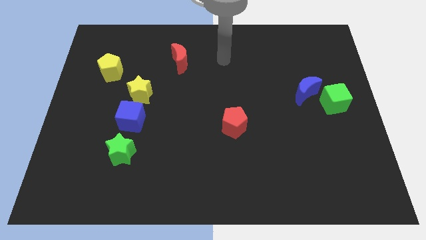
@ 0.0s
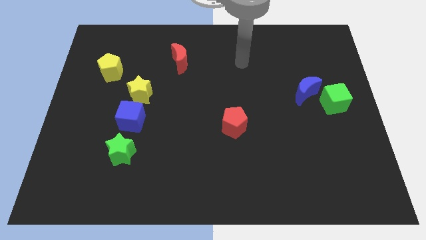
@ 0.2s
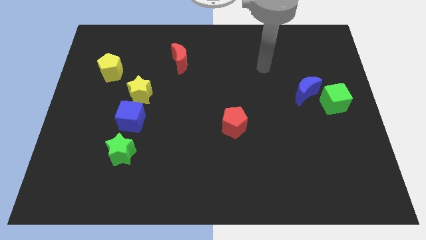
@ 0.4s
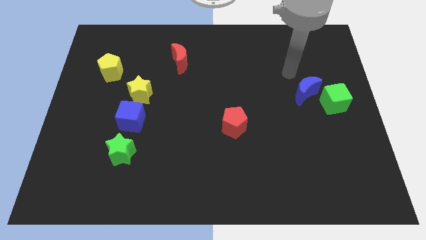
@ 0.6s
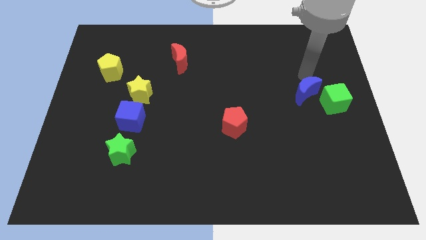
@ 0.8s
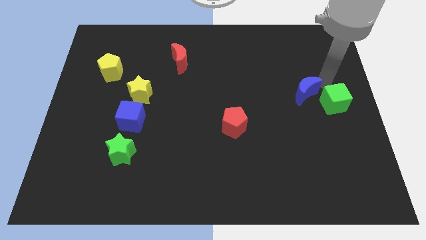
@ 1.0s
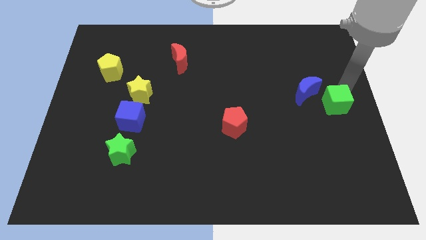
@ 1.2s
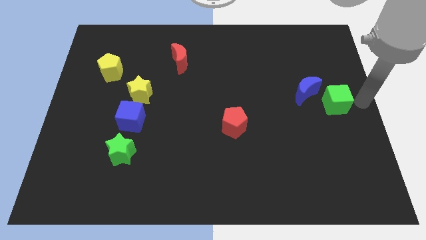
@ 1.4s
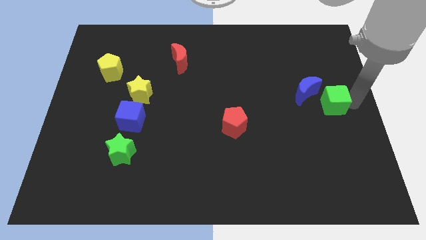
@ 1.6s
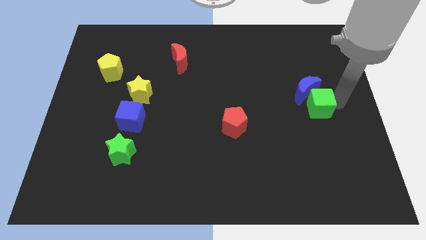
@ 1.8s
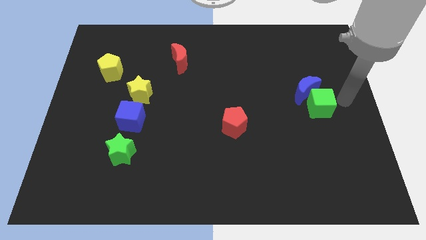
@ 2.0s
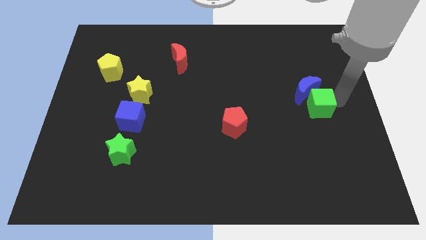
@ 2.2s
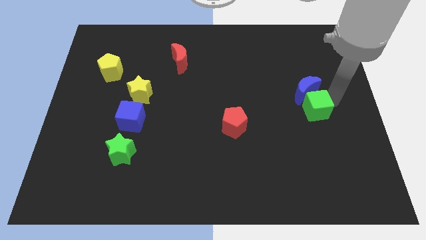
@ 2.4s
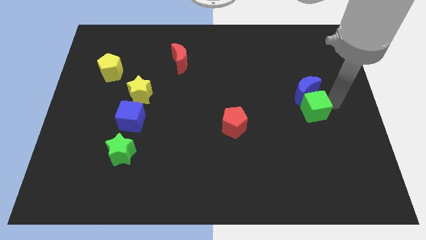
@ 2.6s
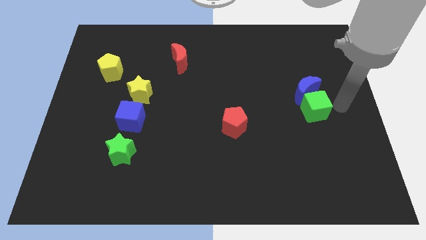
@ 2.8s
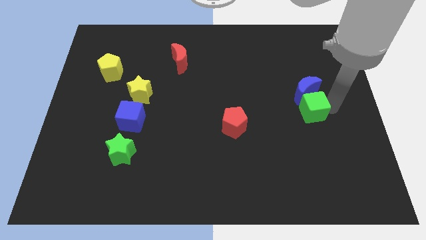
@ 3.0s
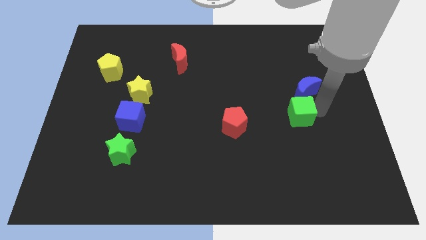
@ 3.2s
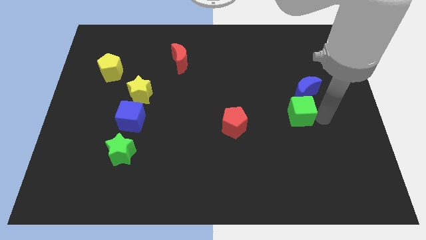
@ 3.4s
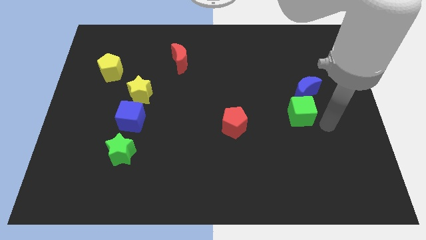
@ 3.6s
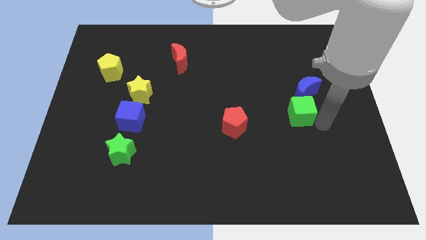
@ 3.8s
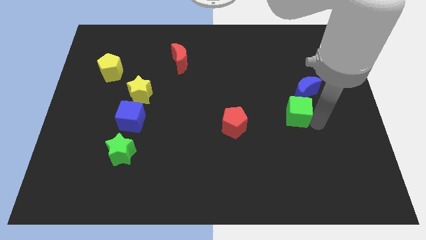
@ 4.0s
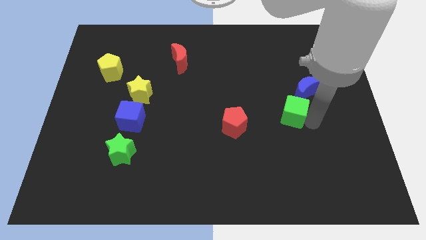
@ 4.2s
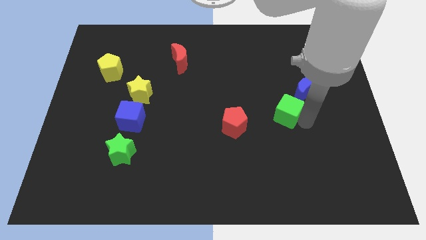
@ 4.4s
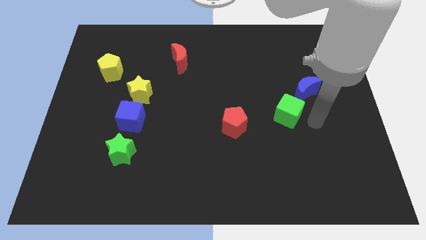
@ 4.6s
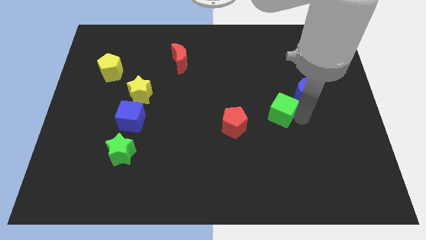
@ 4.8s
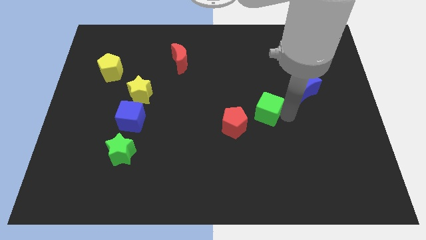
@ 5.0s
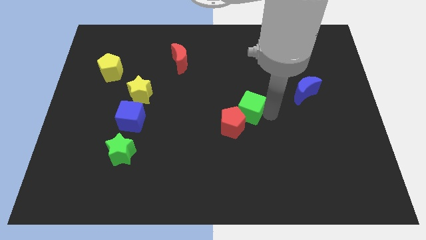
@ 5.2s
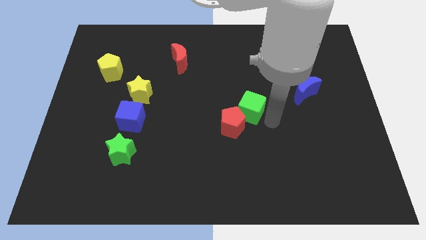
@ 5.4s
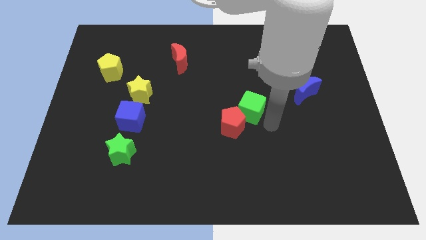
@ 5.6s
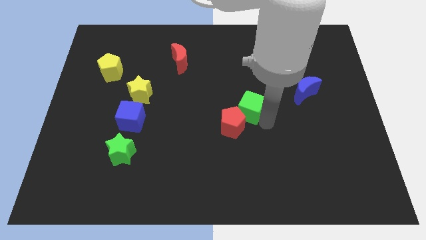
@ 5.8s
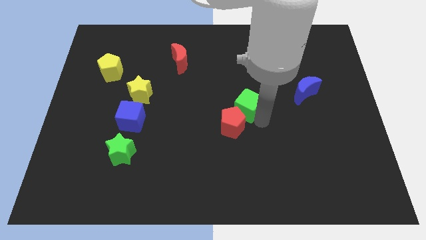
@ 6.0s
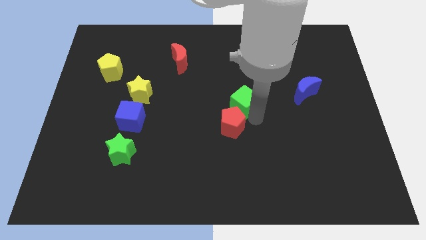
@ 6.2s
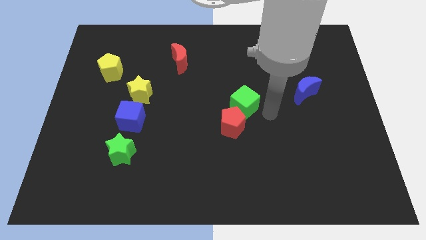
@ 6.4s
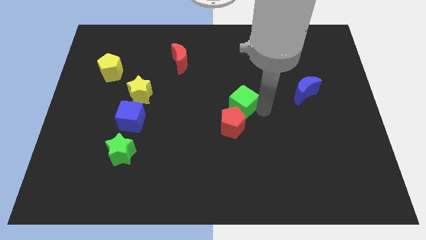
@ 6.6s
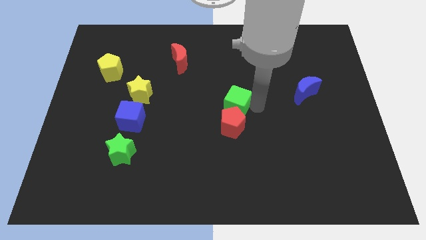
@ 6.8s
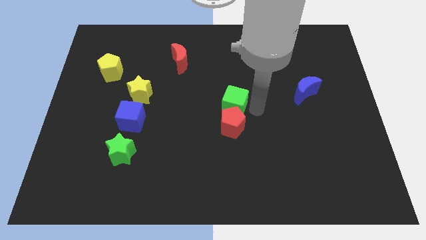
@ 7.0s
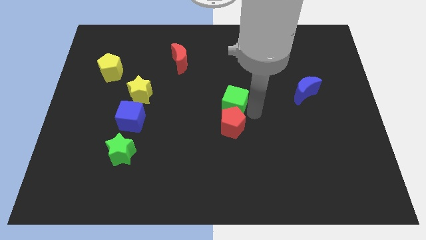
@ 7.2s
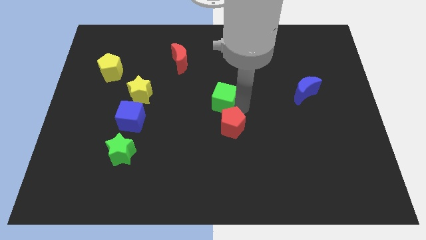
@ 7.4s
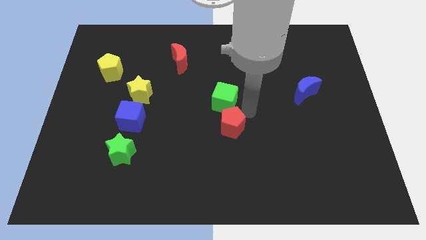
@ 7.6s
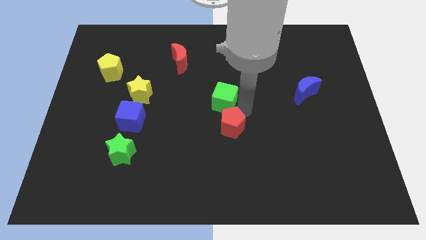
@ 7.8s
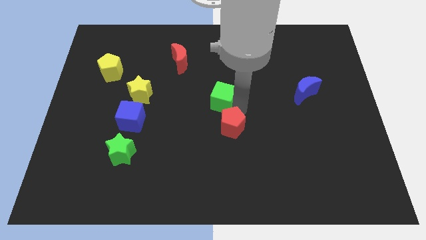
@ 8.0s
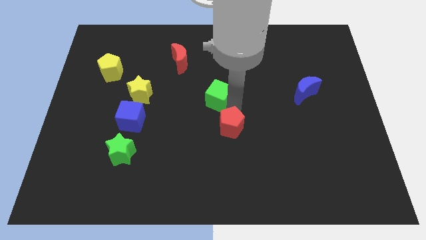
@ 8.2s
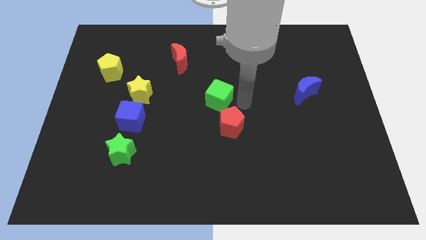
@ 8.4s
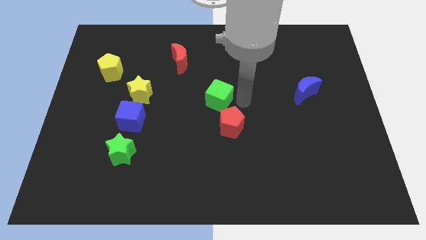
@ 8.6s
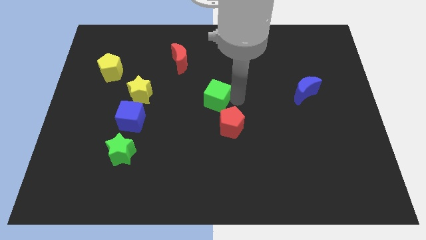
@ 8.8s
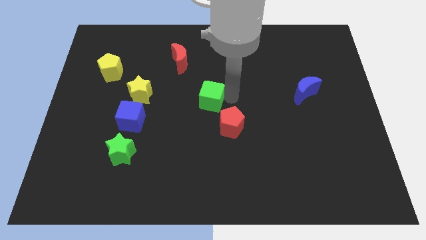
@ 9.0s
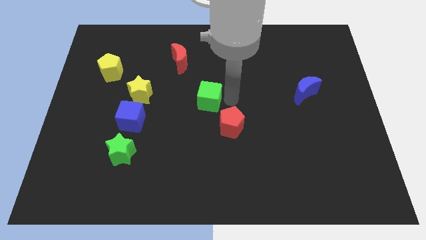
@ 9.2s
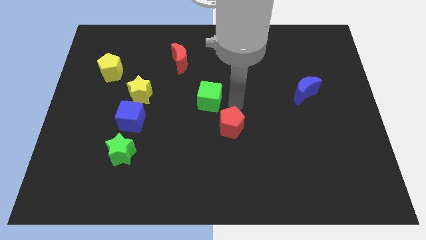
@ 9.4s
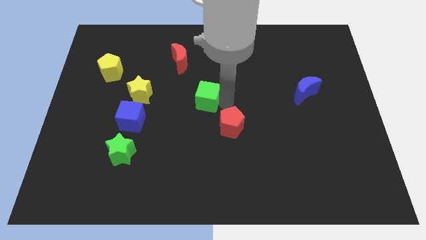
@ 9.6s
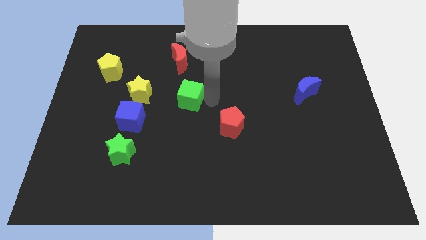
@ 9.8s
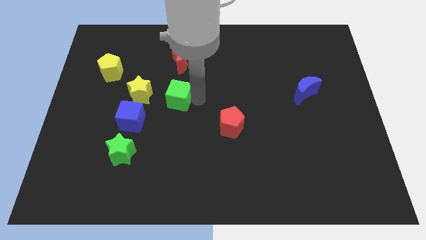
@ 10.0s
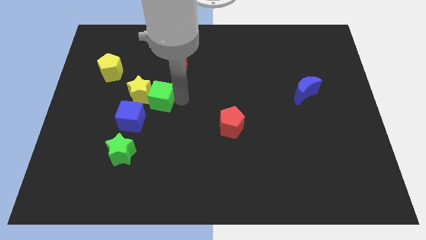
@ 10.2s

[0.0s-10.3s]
slide the green cube to the yellow star

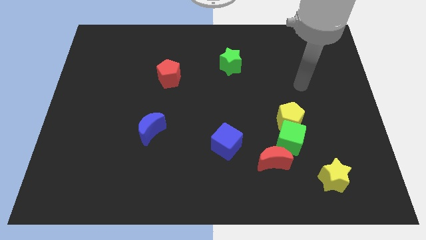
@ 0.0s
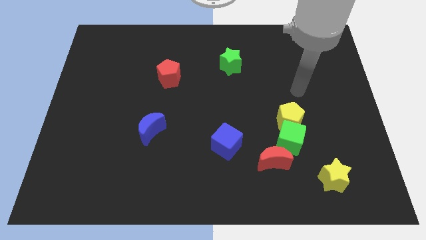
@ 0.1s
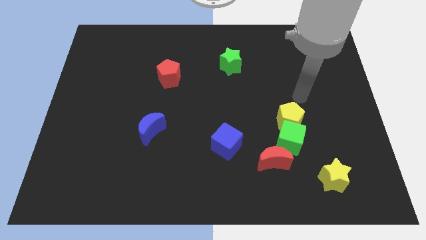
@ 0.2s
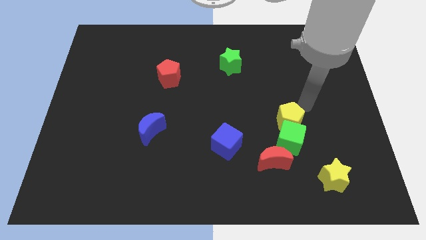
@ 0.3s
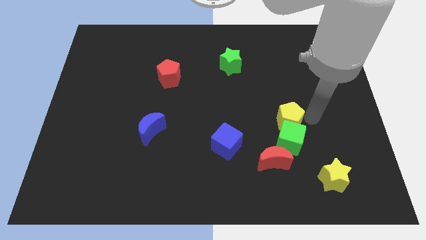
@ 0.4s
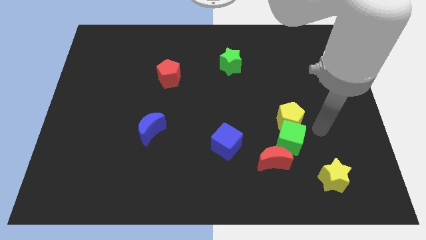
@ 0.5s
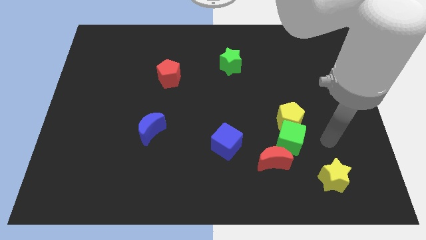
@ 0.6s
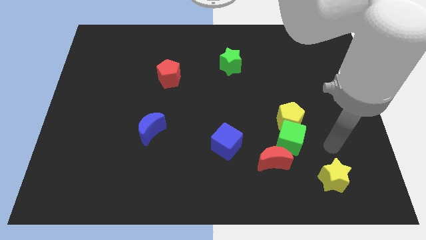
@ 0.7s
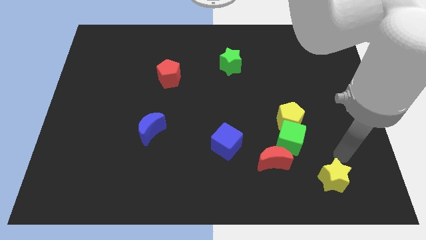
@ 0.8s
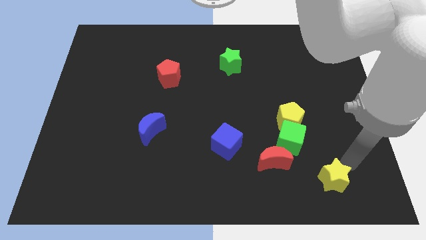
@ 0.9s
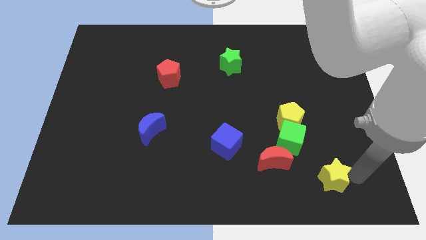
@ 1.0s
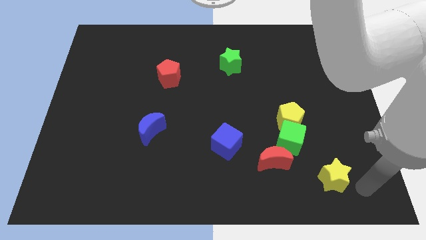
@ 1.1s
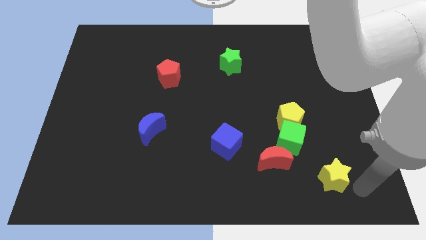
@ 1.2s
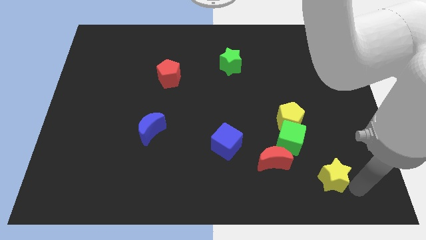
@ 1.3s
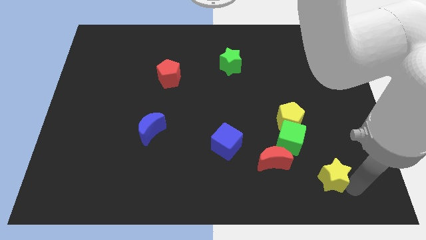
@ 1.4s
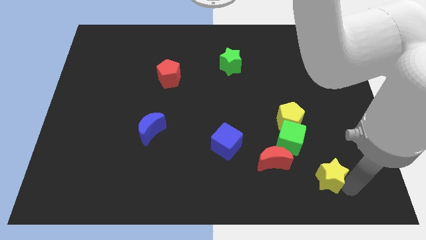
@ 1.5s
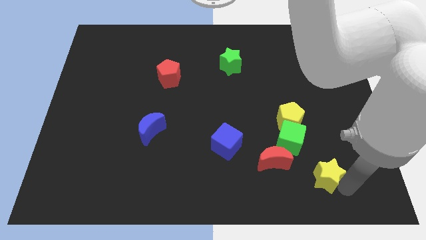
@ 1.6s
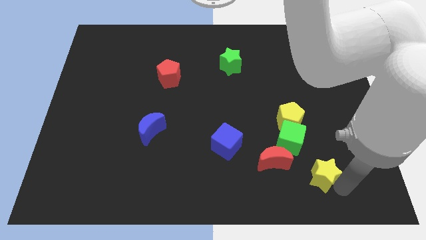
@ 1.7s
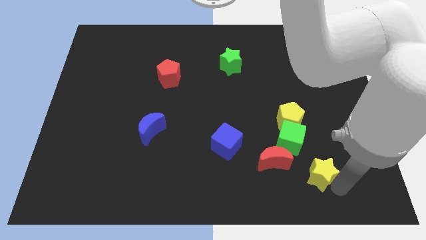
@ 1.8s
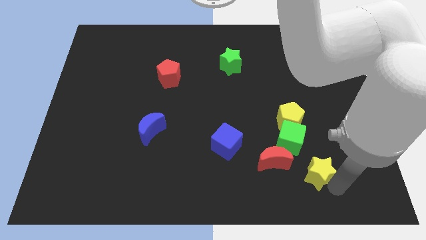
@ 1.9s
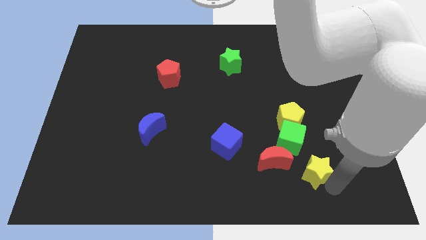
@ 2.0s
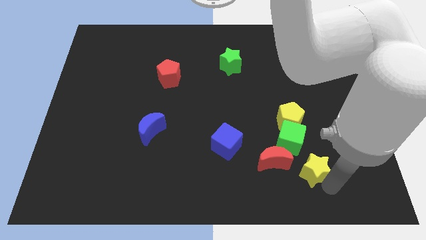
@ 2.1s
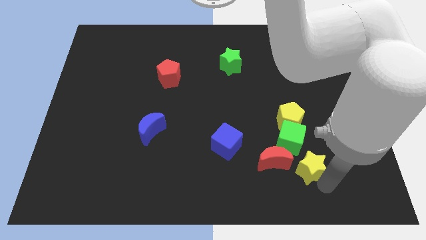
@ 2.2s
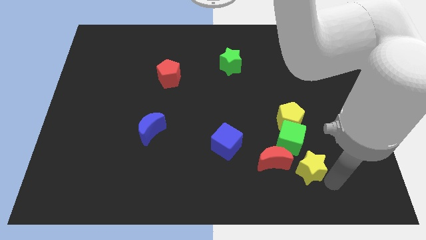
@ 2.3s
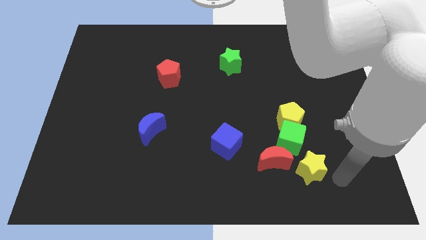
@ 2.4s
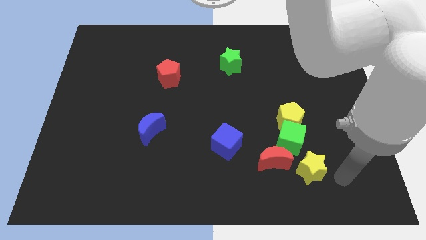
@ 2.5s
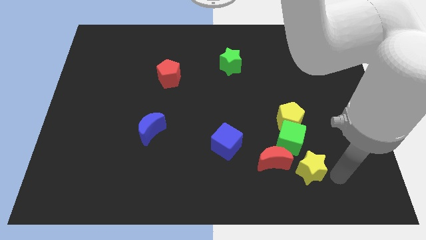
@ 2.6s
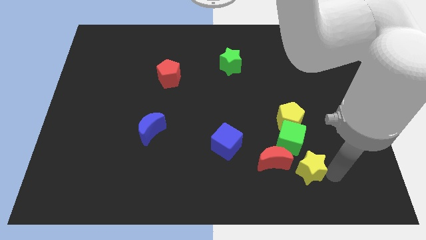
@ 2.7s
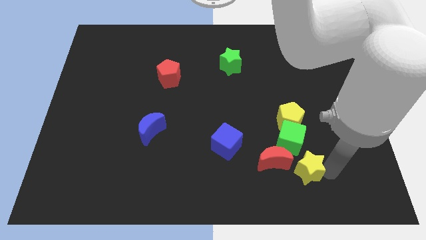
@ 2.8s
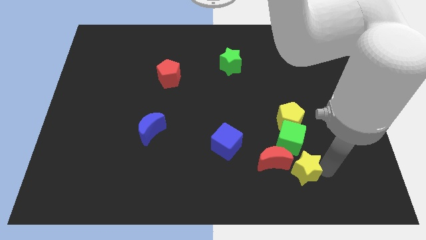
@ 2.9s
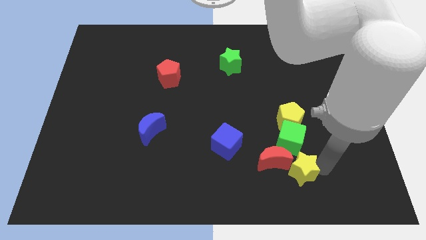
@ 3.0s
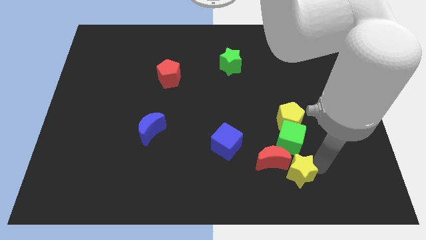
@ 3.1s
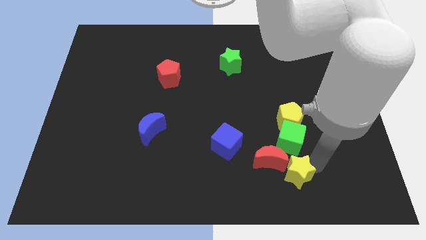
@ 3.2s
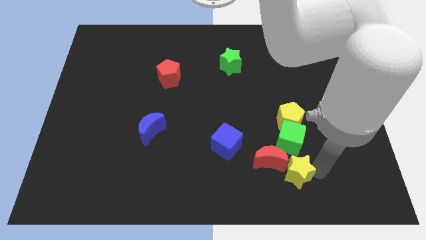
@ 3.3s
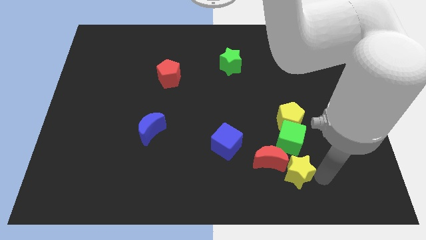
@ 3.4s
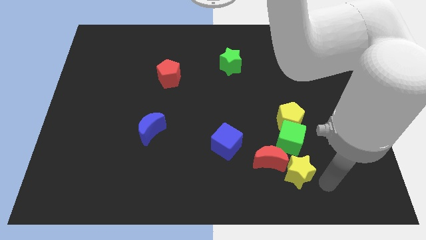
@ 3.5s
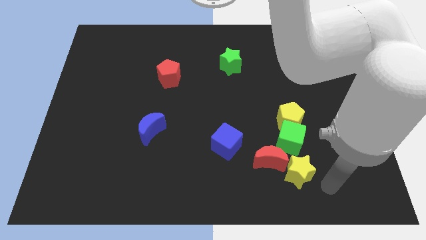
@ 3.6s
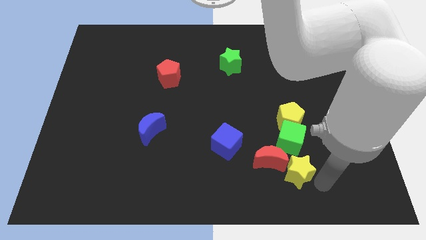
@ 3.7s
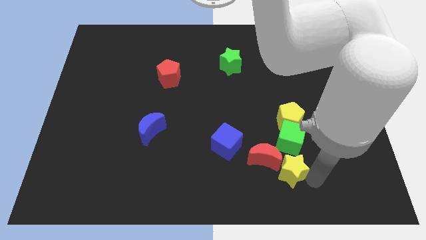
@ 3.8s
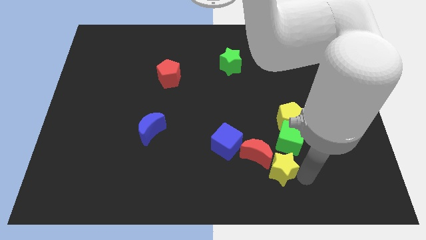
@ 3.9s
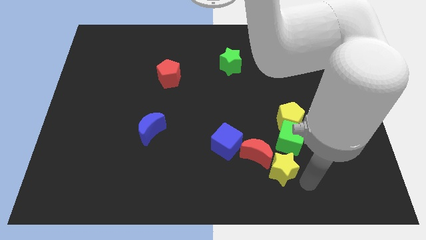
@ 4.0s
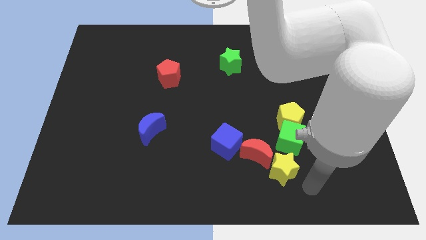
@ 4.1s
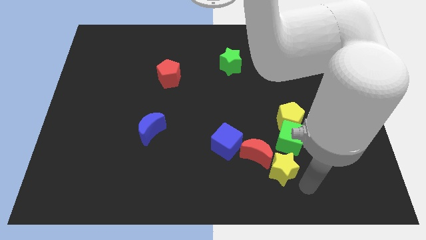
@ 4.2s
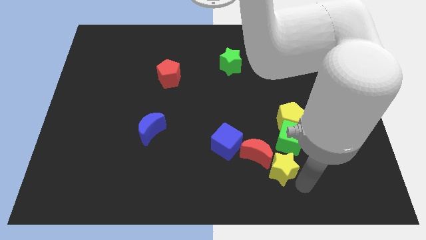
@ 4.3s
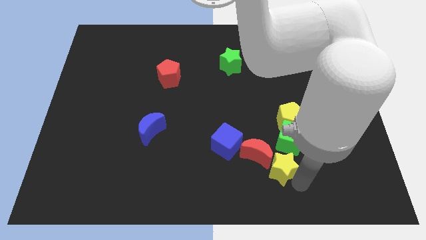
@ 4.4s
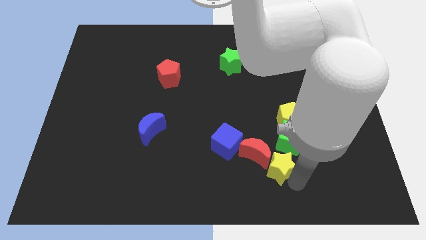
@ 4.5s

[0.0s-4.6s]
slide the yellow star close to the red moon
